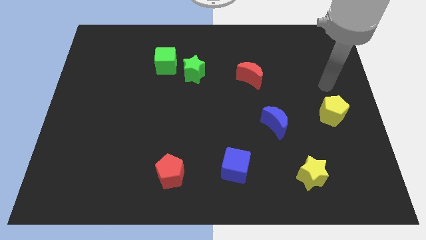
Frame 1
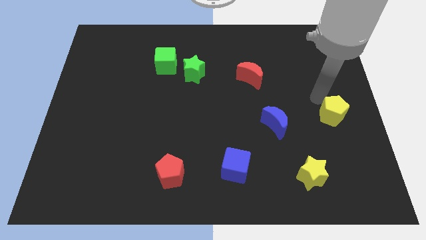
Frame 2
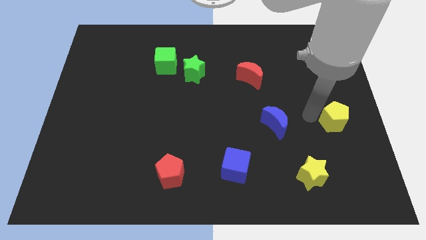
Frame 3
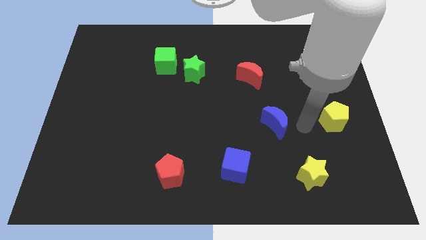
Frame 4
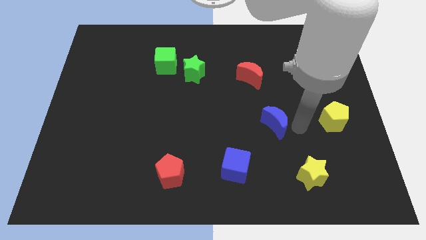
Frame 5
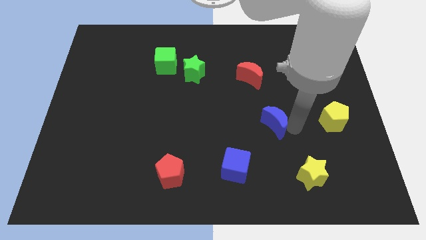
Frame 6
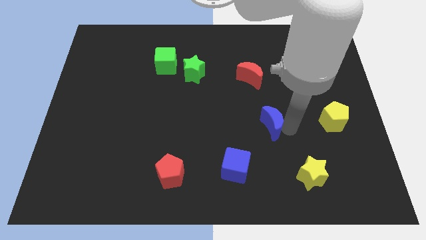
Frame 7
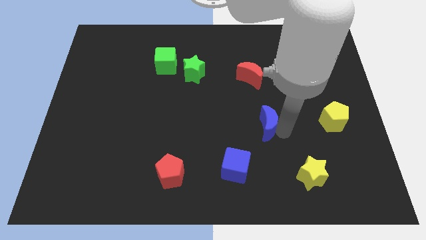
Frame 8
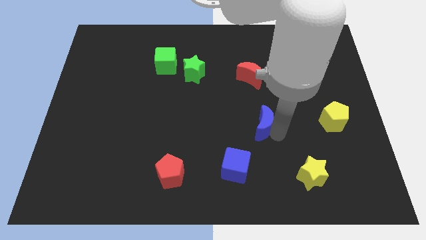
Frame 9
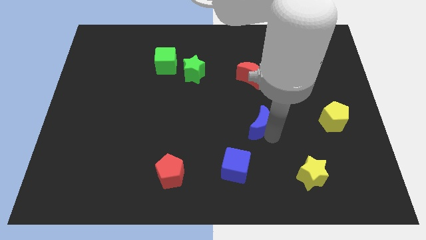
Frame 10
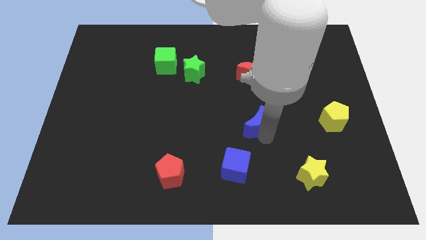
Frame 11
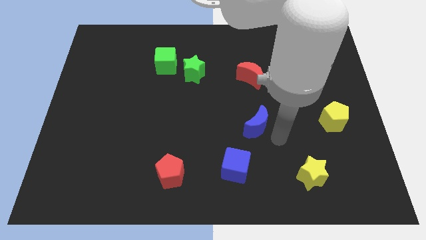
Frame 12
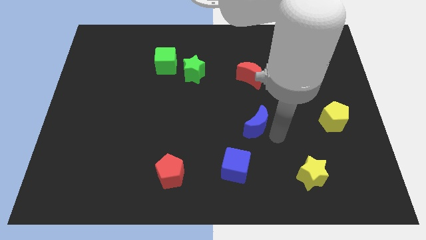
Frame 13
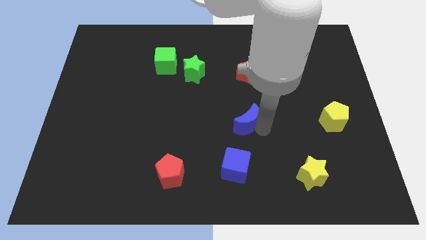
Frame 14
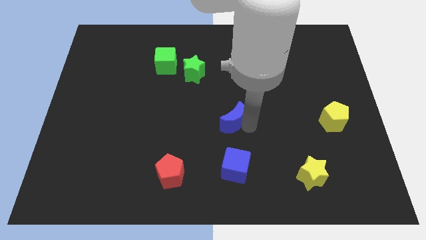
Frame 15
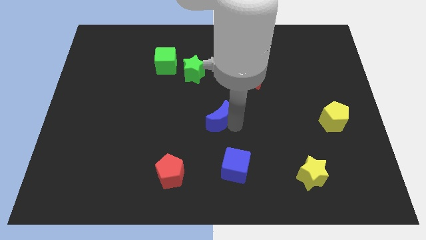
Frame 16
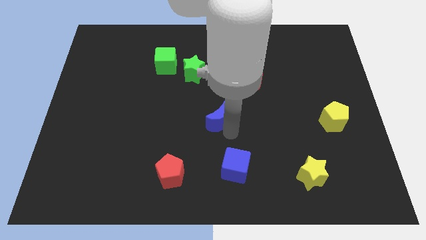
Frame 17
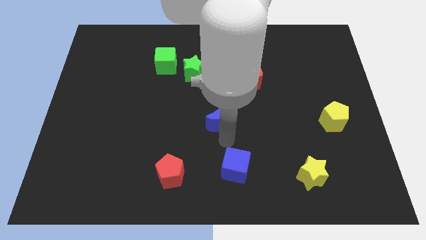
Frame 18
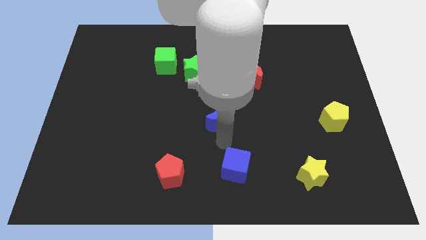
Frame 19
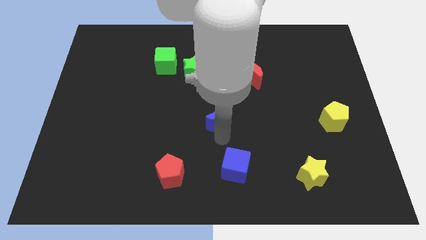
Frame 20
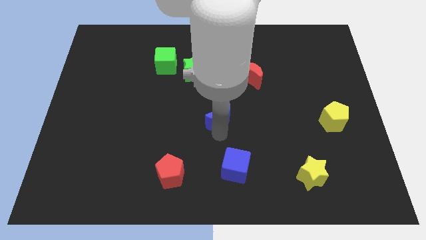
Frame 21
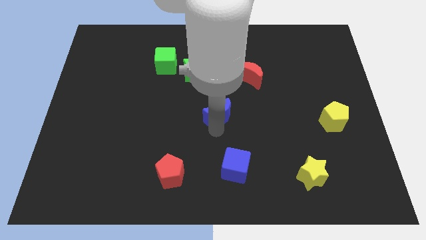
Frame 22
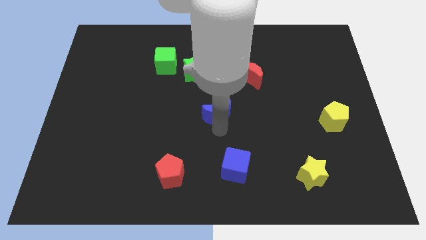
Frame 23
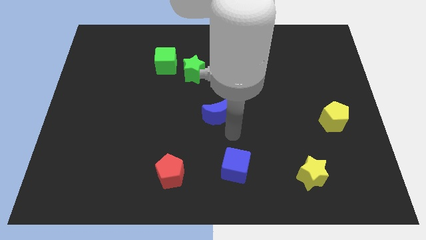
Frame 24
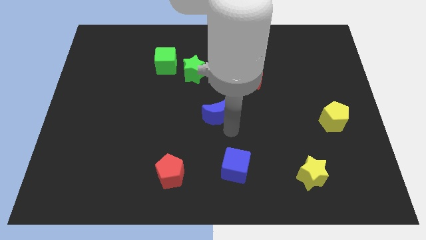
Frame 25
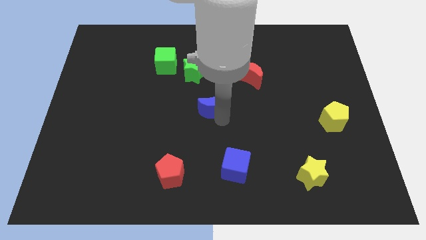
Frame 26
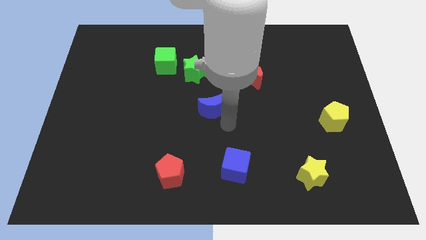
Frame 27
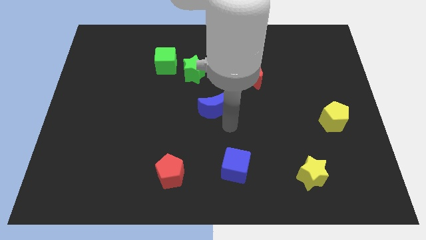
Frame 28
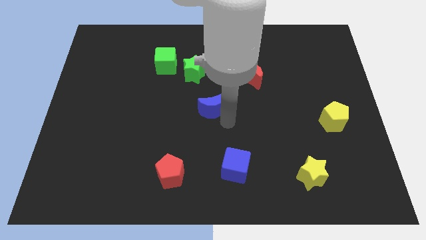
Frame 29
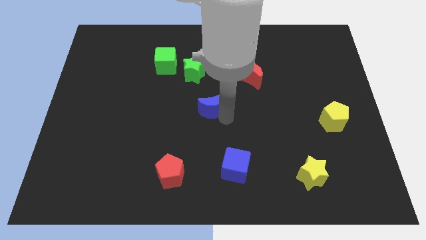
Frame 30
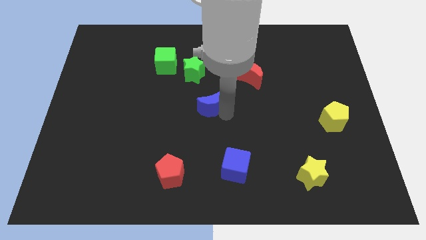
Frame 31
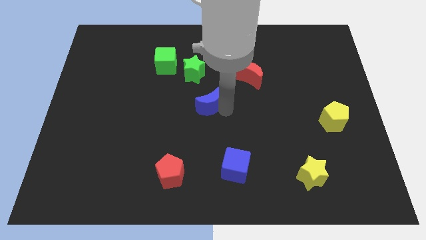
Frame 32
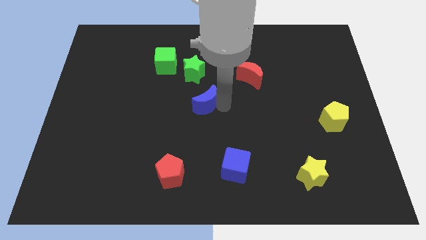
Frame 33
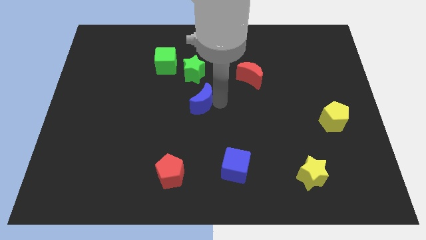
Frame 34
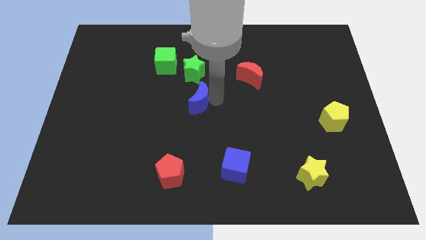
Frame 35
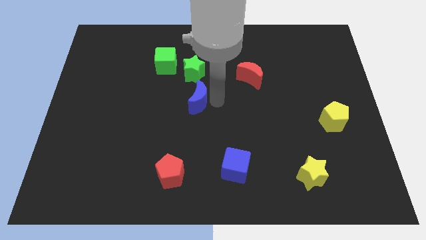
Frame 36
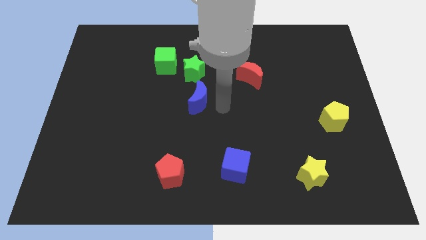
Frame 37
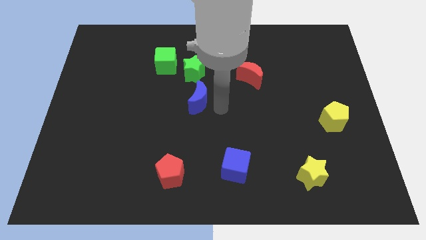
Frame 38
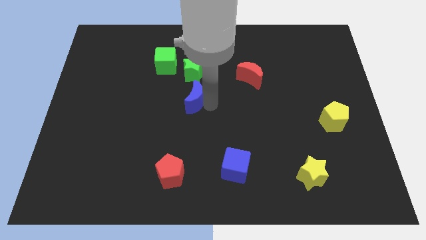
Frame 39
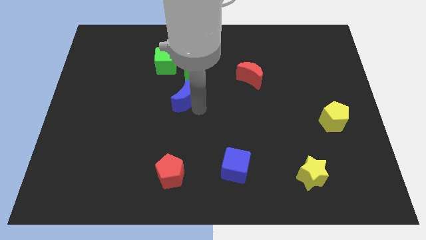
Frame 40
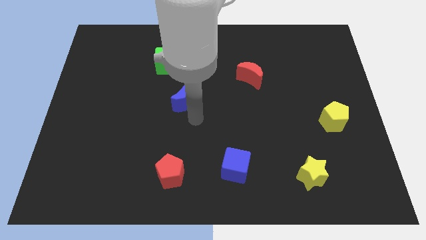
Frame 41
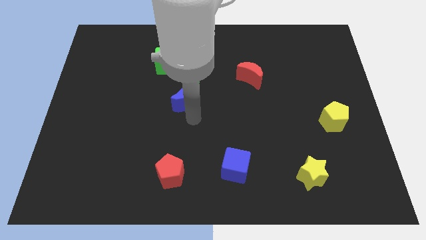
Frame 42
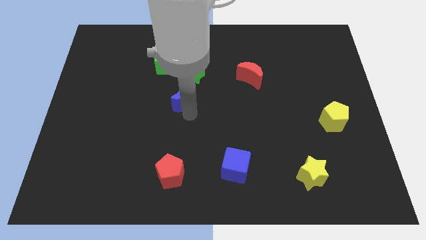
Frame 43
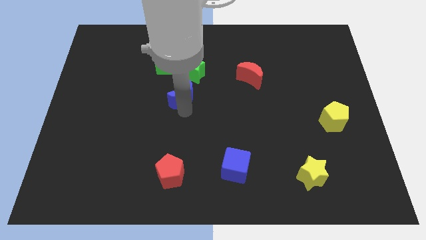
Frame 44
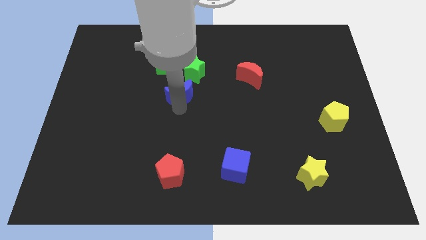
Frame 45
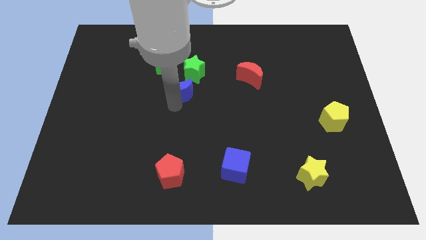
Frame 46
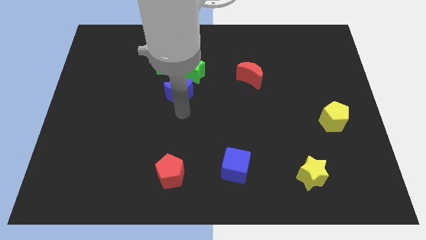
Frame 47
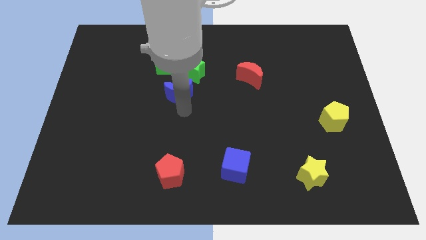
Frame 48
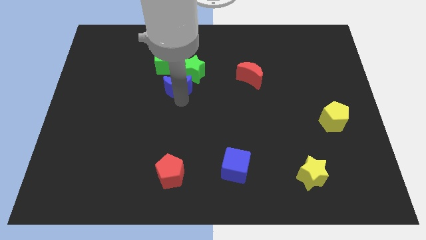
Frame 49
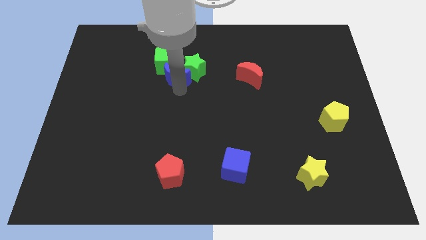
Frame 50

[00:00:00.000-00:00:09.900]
move the blue moon next to the green cube

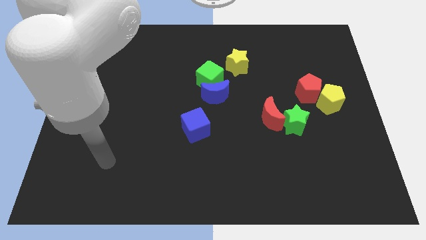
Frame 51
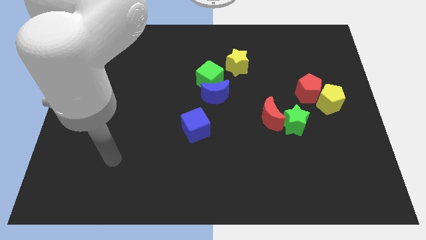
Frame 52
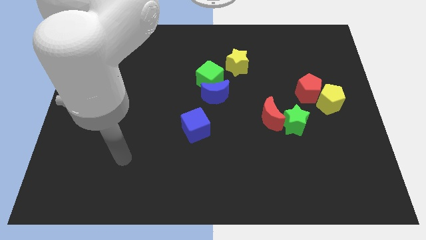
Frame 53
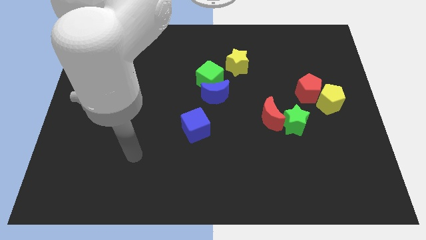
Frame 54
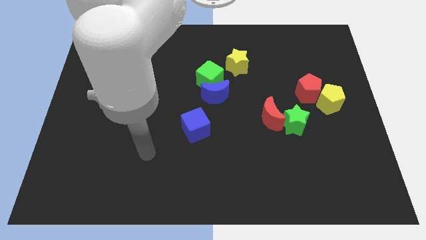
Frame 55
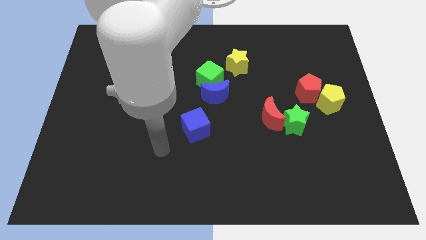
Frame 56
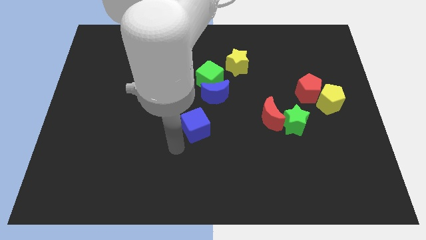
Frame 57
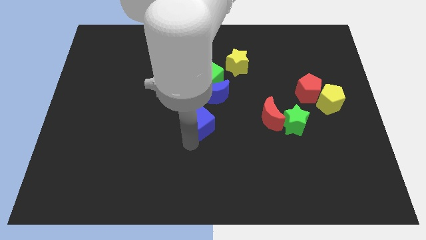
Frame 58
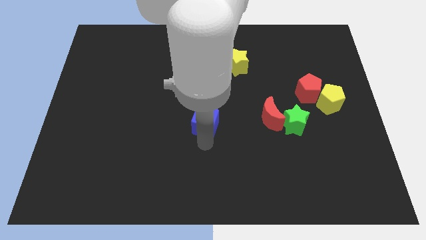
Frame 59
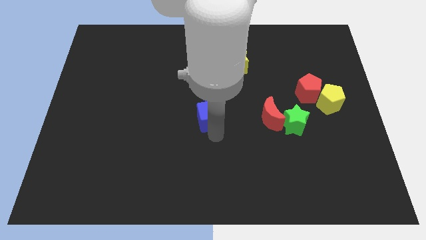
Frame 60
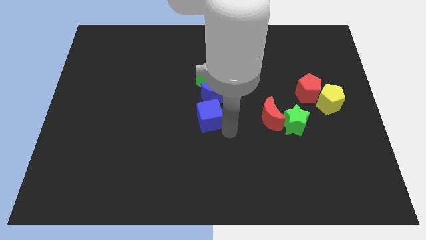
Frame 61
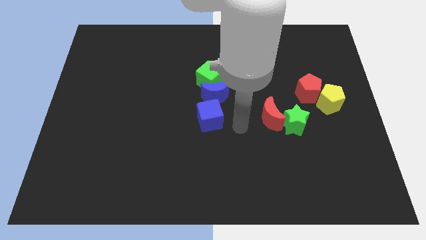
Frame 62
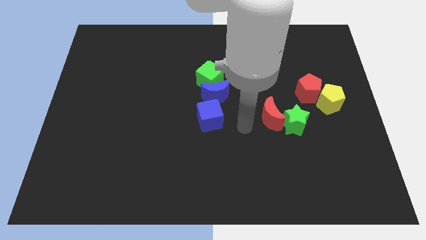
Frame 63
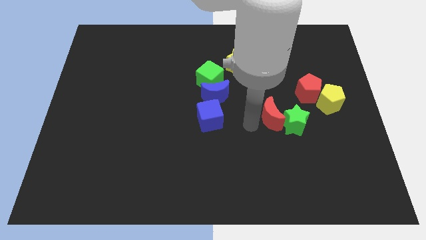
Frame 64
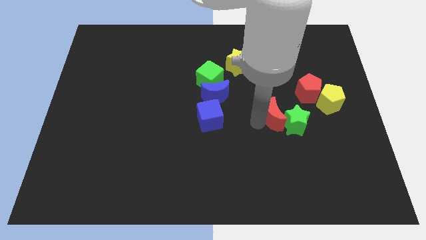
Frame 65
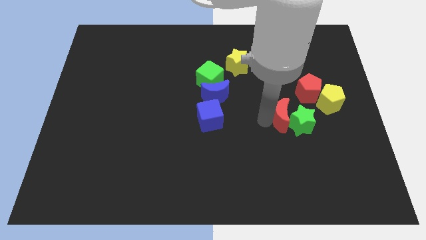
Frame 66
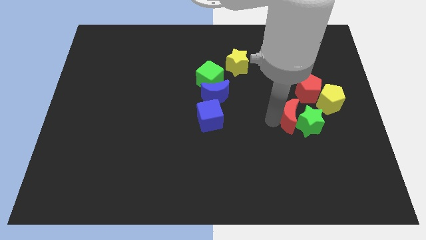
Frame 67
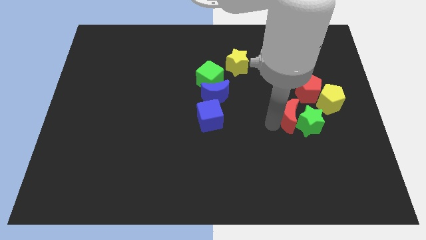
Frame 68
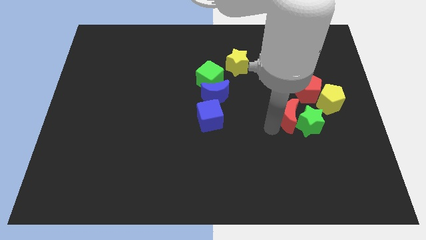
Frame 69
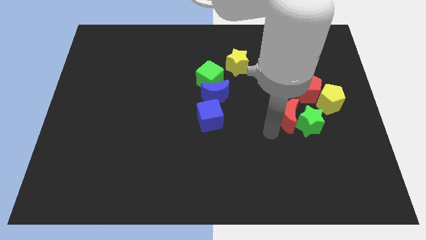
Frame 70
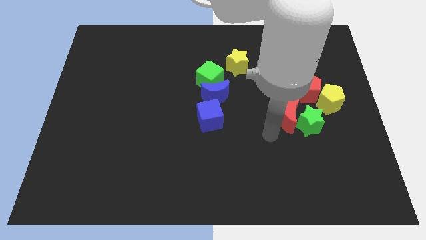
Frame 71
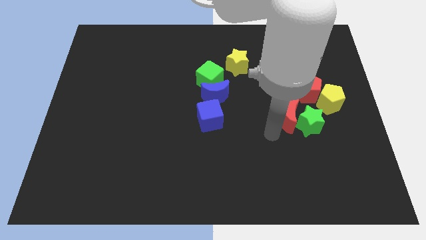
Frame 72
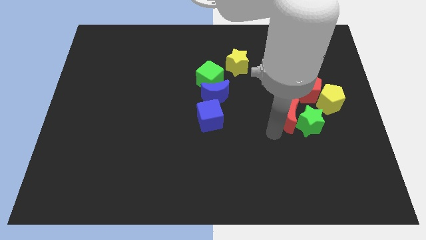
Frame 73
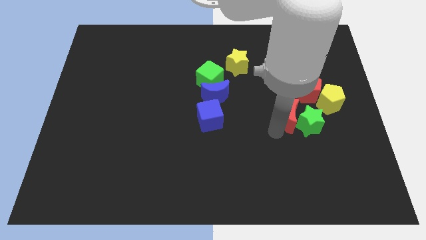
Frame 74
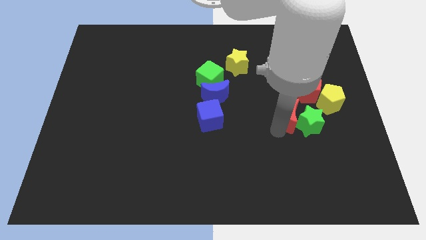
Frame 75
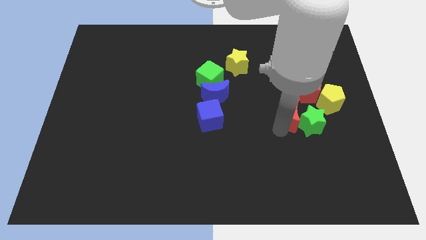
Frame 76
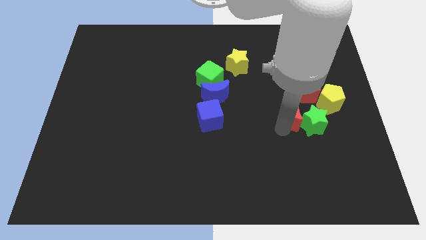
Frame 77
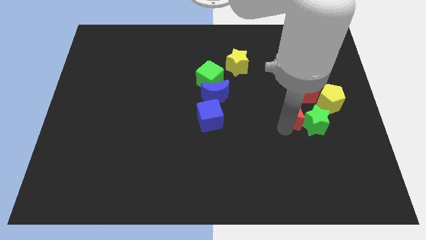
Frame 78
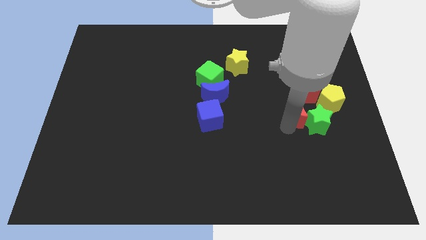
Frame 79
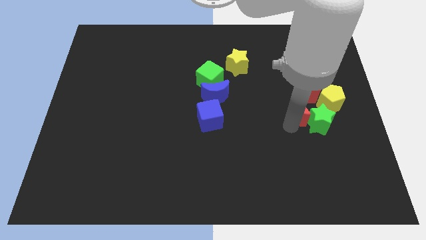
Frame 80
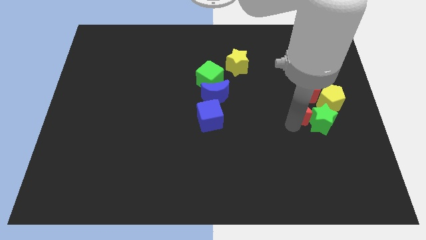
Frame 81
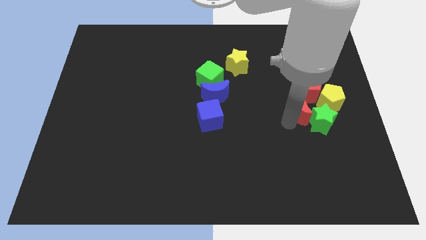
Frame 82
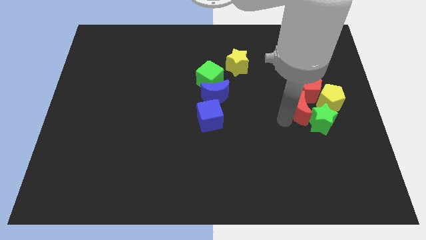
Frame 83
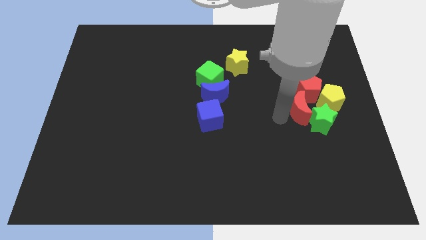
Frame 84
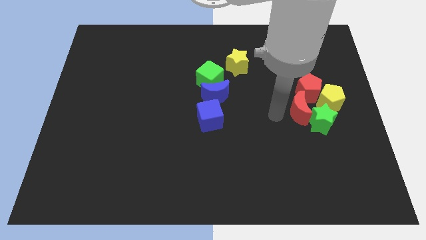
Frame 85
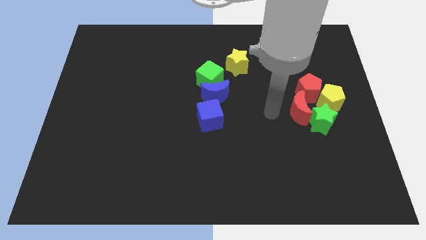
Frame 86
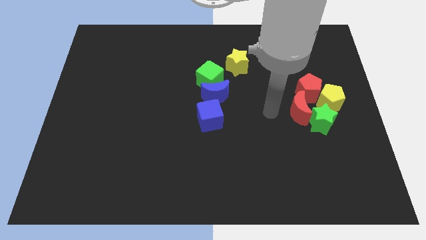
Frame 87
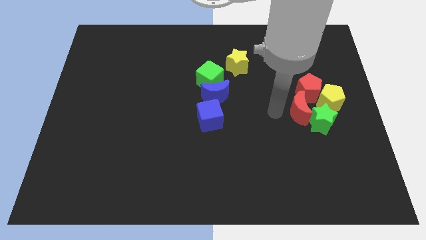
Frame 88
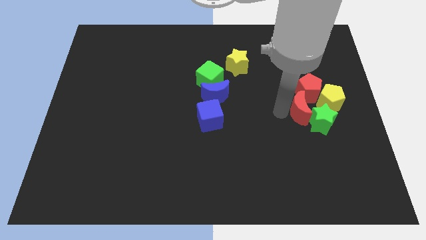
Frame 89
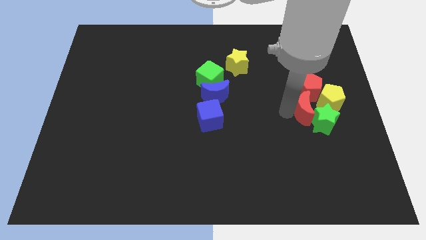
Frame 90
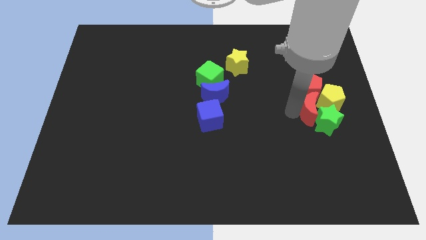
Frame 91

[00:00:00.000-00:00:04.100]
push the red moon next to the yellow pentagon
